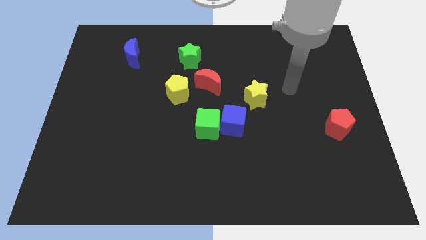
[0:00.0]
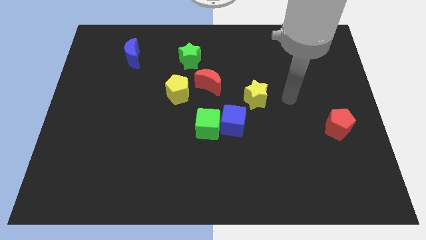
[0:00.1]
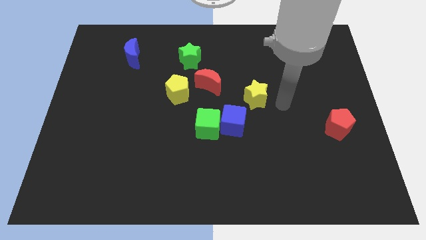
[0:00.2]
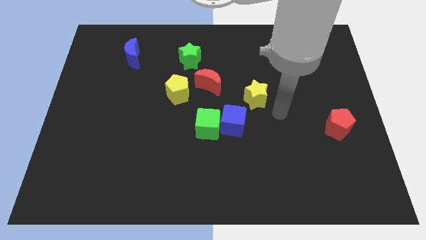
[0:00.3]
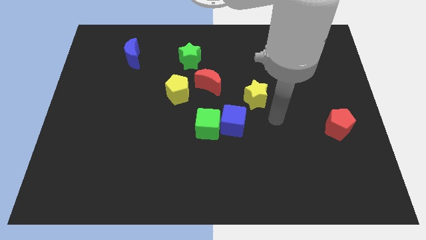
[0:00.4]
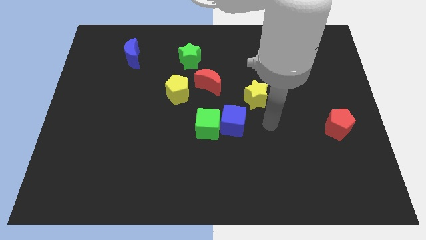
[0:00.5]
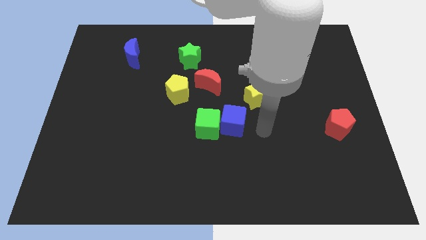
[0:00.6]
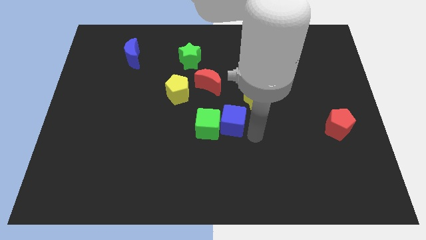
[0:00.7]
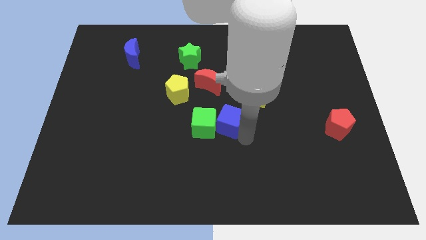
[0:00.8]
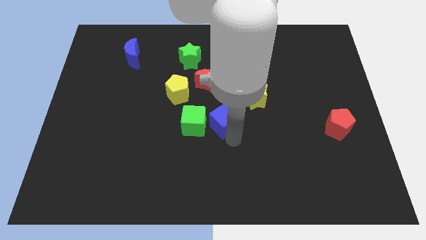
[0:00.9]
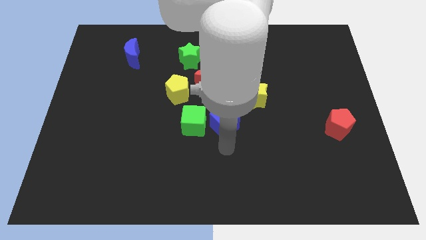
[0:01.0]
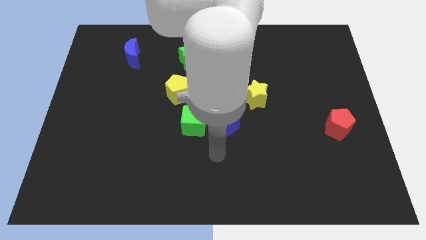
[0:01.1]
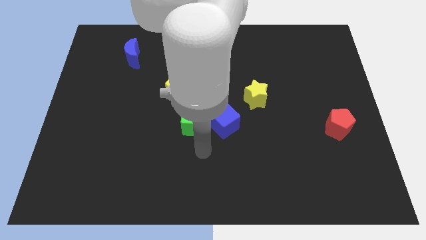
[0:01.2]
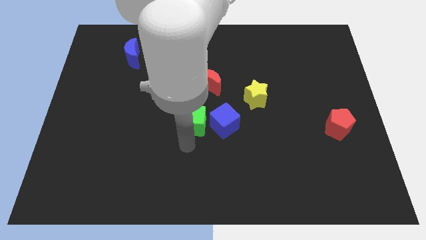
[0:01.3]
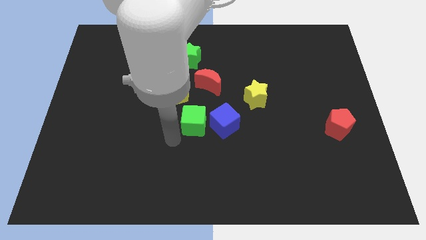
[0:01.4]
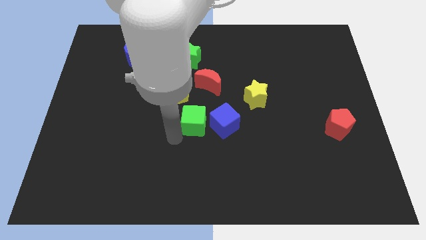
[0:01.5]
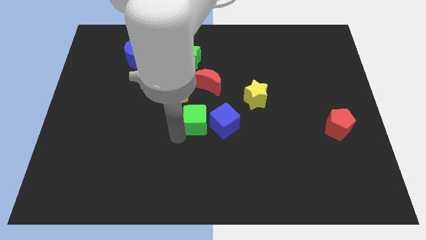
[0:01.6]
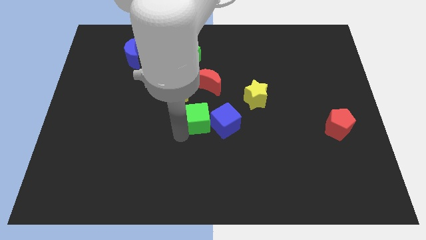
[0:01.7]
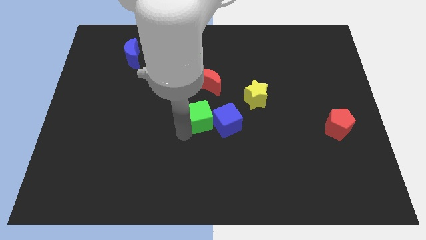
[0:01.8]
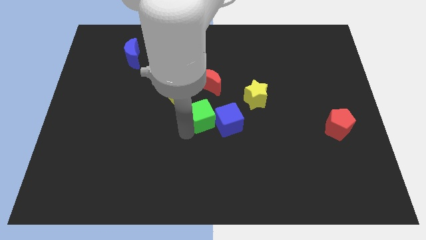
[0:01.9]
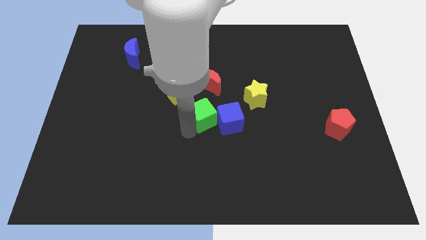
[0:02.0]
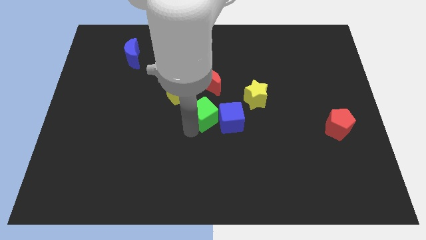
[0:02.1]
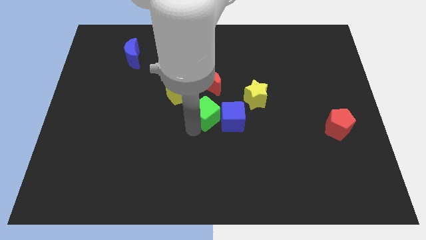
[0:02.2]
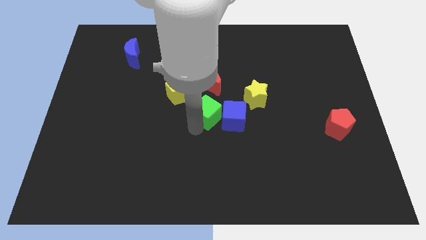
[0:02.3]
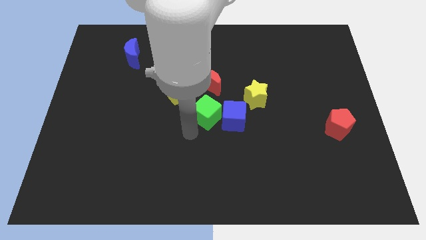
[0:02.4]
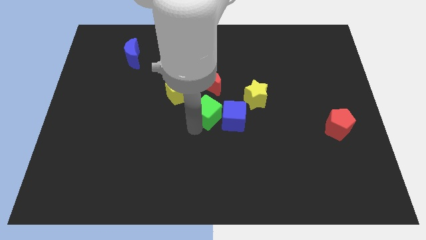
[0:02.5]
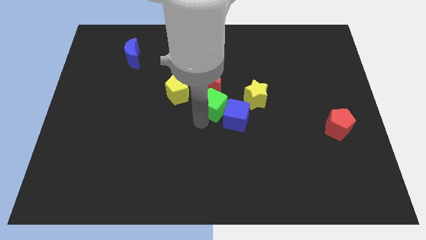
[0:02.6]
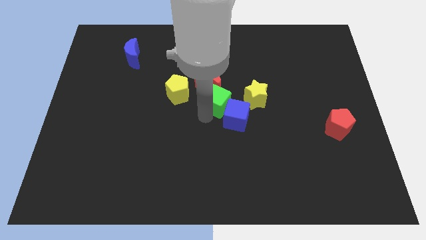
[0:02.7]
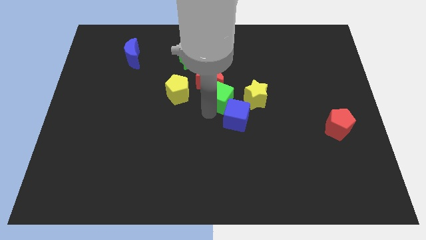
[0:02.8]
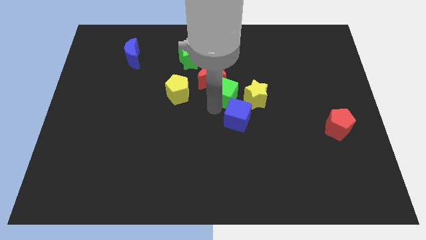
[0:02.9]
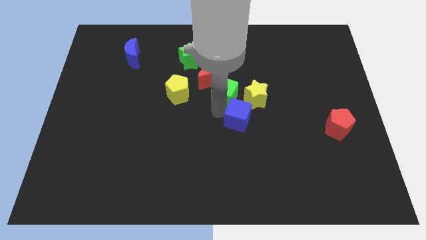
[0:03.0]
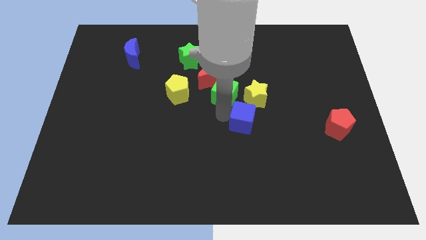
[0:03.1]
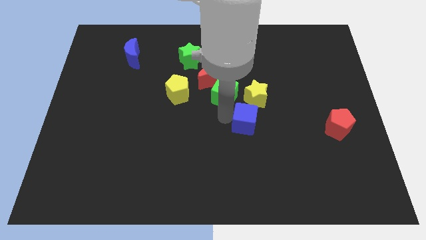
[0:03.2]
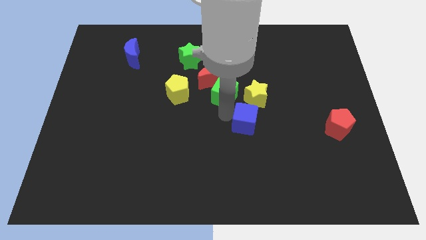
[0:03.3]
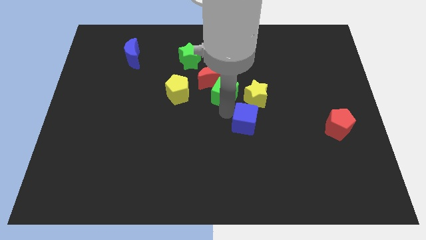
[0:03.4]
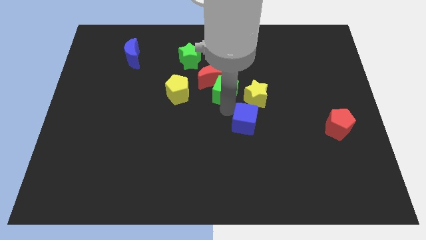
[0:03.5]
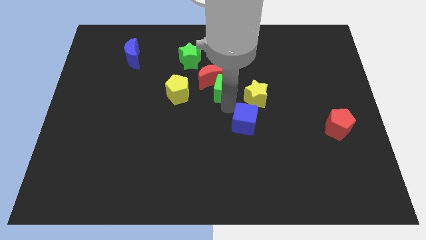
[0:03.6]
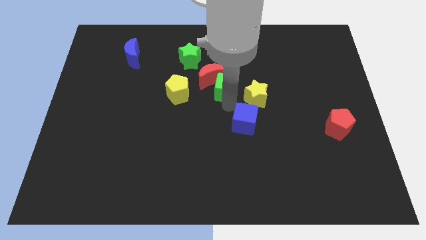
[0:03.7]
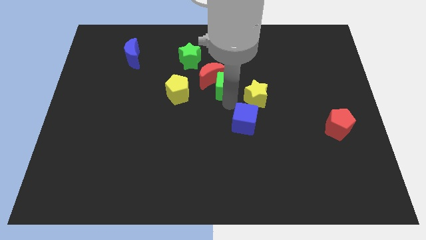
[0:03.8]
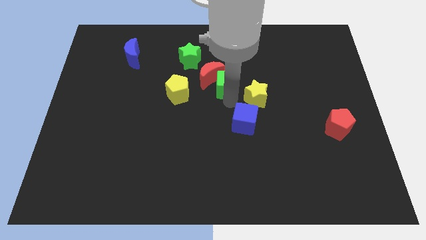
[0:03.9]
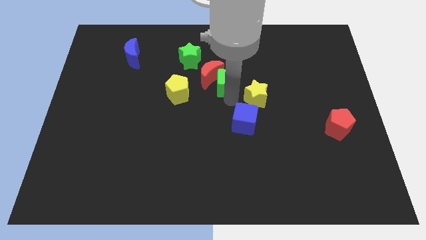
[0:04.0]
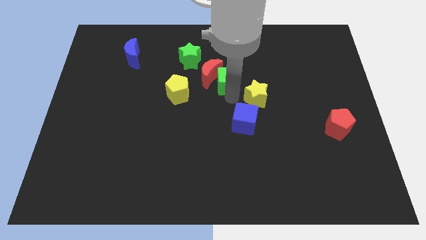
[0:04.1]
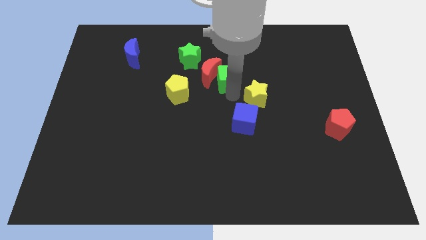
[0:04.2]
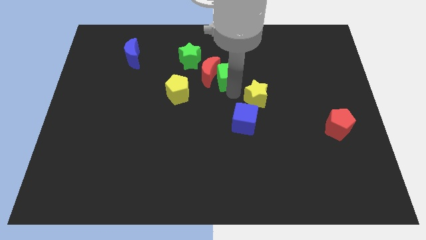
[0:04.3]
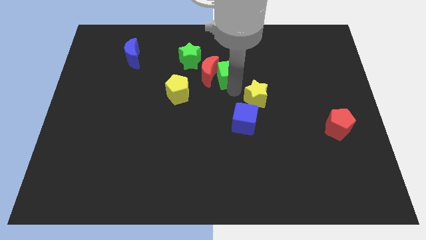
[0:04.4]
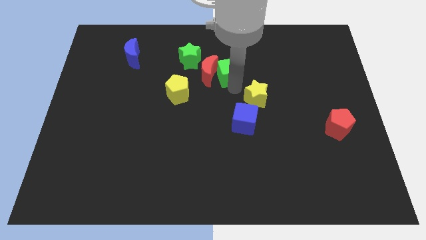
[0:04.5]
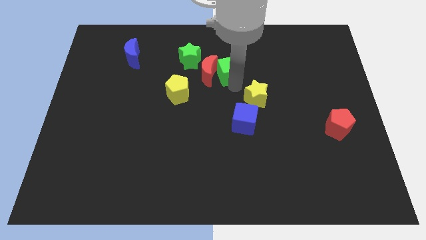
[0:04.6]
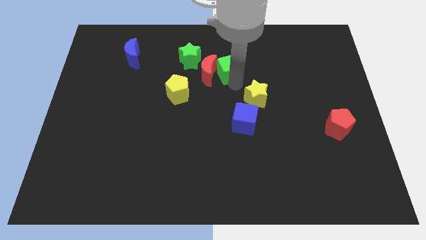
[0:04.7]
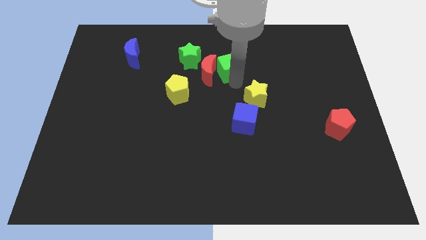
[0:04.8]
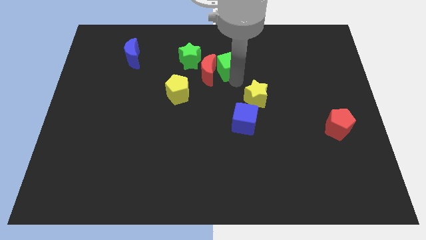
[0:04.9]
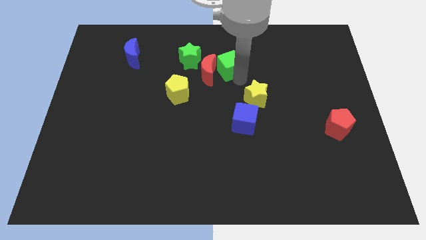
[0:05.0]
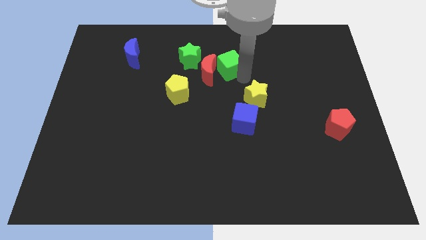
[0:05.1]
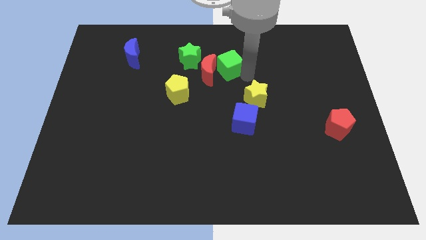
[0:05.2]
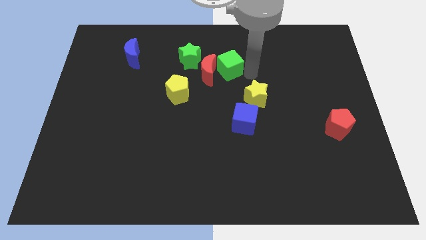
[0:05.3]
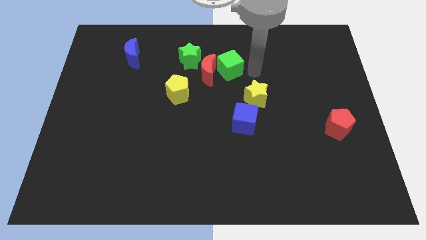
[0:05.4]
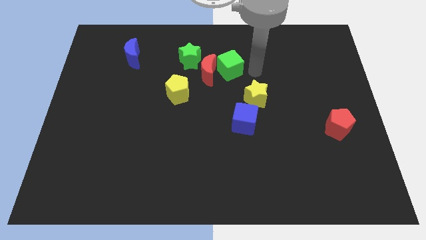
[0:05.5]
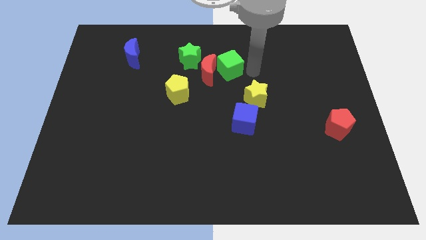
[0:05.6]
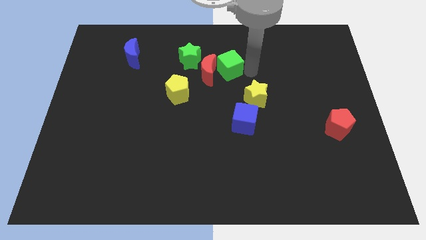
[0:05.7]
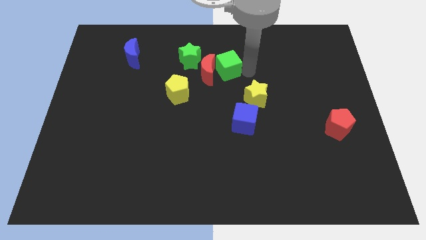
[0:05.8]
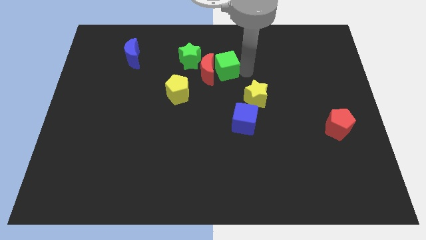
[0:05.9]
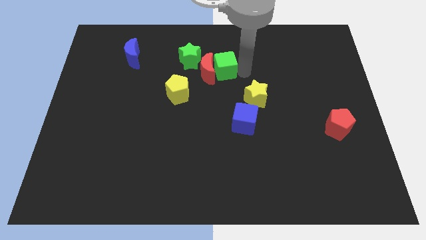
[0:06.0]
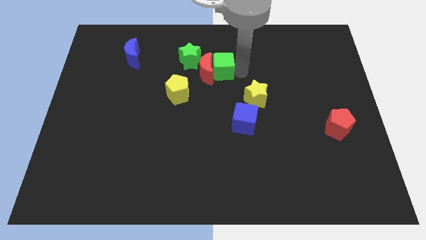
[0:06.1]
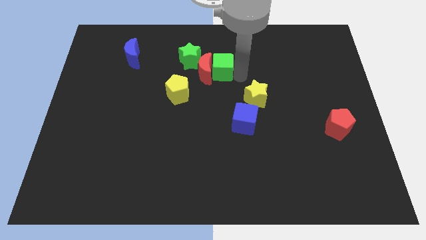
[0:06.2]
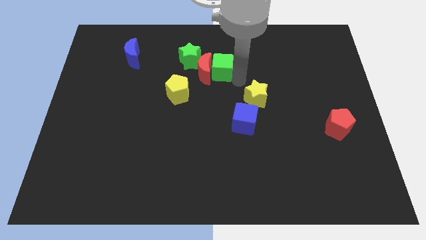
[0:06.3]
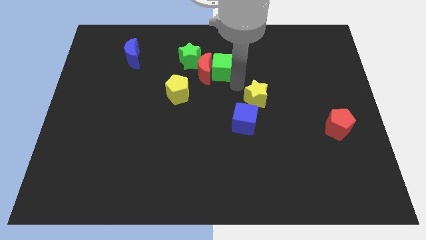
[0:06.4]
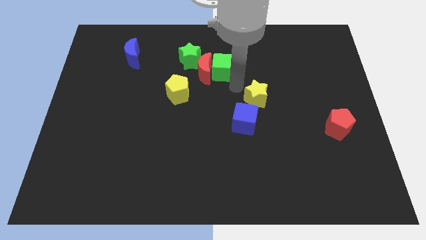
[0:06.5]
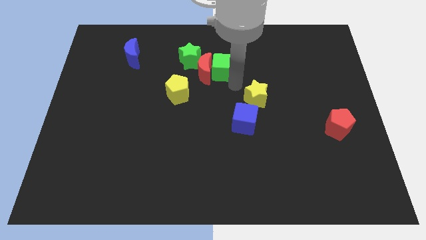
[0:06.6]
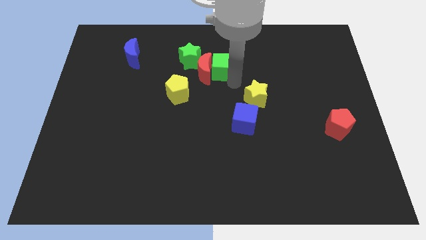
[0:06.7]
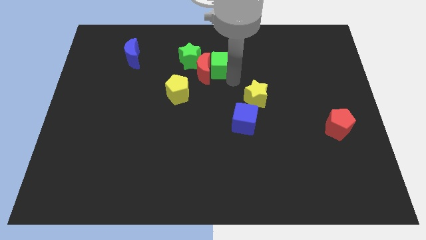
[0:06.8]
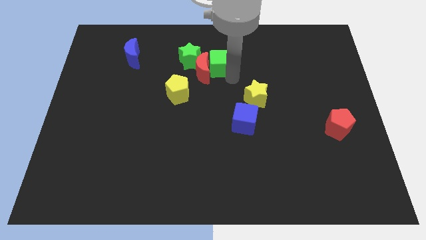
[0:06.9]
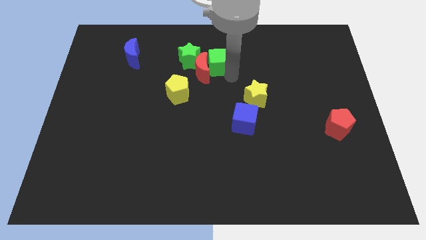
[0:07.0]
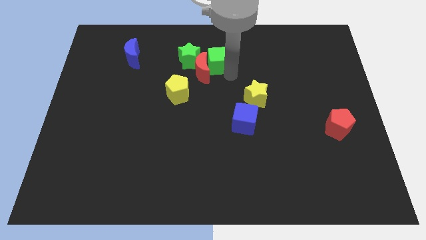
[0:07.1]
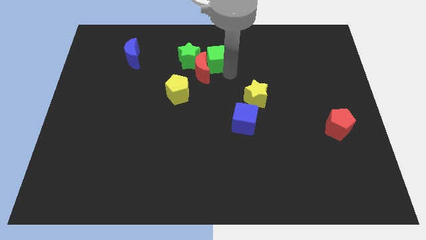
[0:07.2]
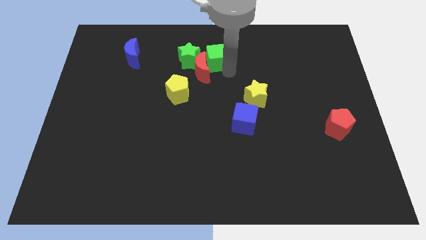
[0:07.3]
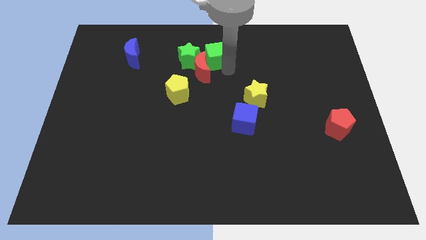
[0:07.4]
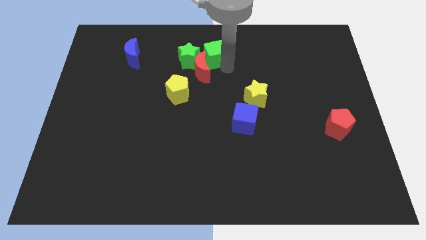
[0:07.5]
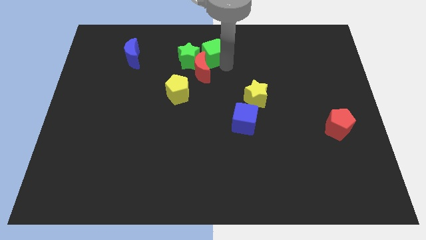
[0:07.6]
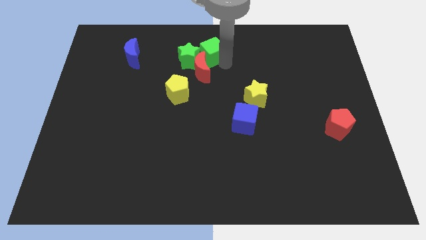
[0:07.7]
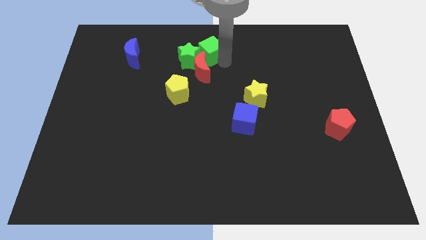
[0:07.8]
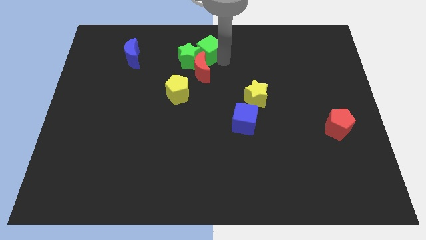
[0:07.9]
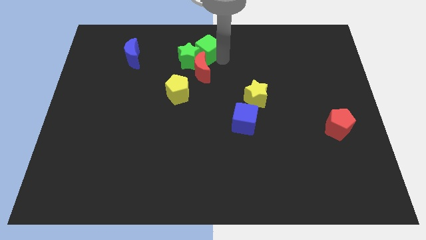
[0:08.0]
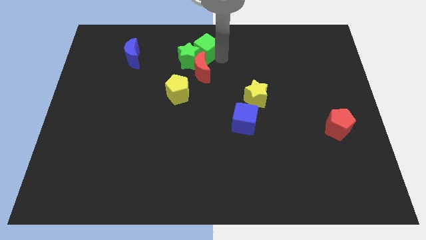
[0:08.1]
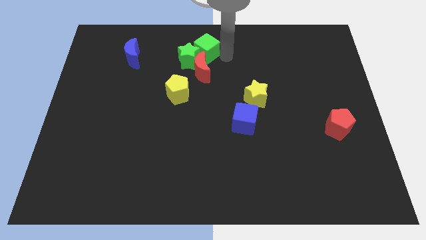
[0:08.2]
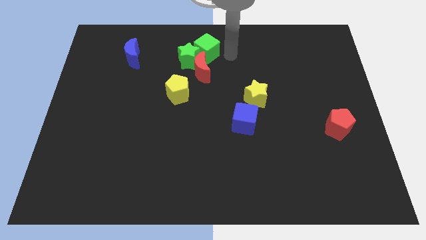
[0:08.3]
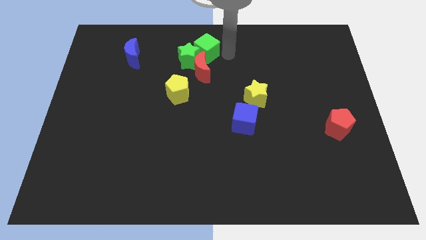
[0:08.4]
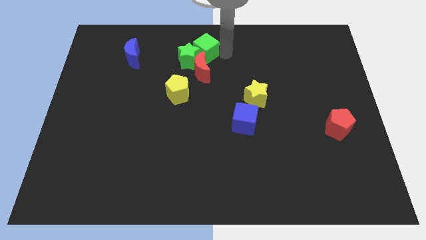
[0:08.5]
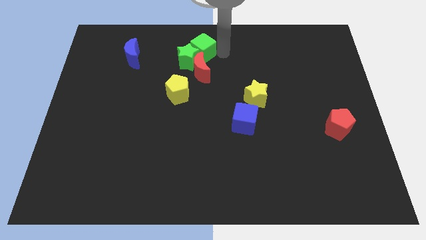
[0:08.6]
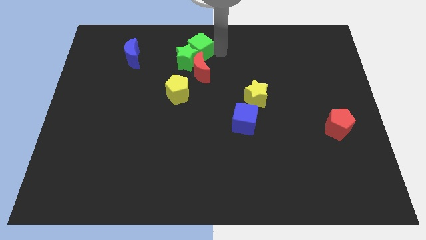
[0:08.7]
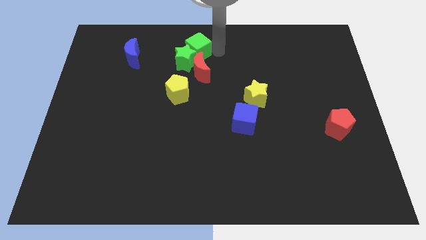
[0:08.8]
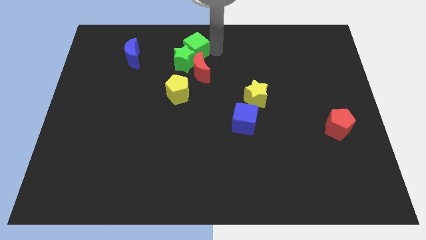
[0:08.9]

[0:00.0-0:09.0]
slide the green cube to the top side of the yellow pentagon
